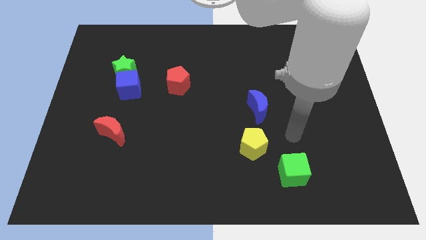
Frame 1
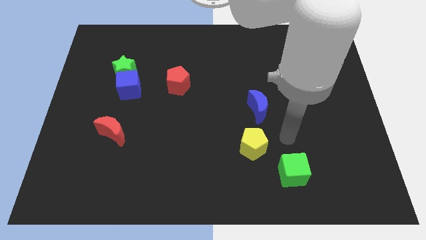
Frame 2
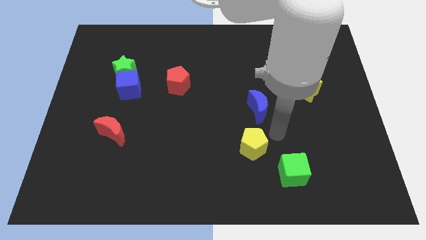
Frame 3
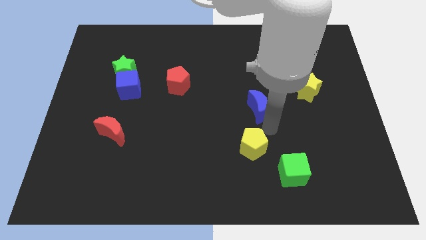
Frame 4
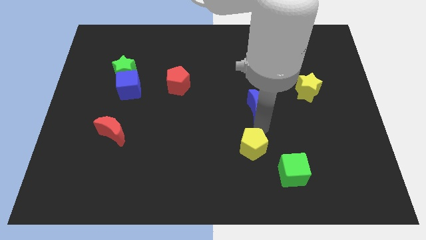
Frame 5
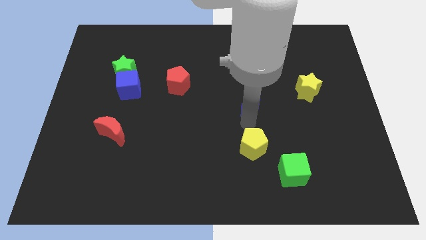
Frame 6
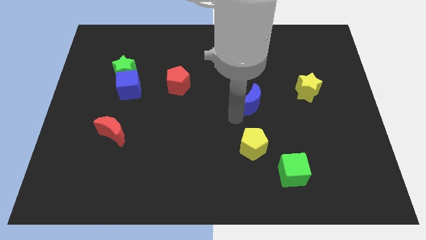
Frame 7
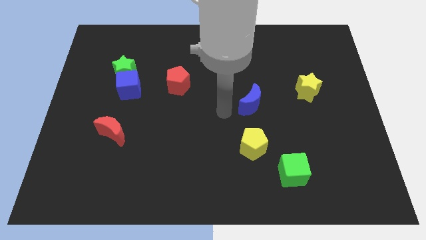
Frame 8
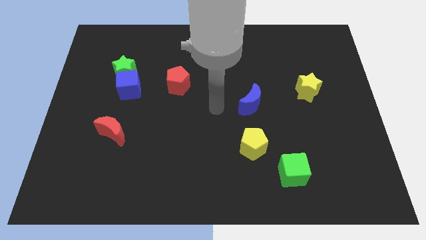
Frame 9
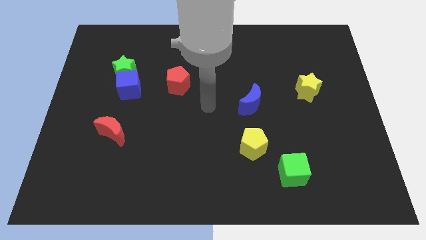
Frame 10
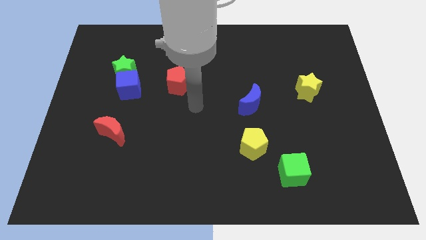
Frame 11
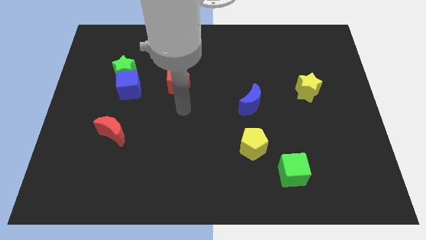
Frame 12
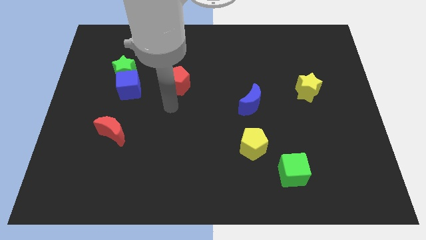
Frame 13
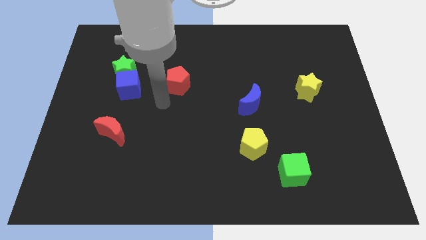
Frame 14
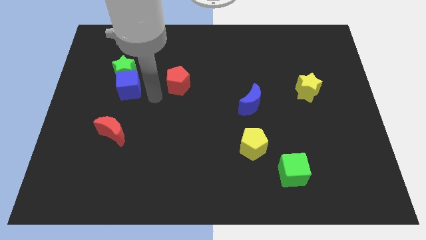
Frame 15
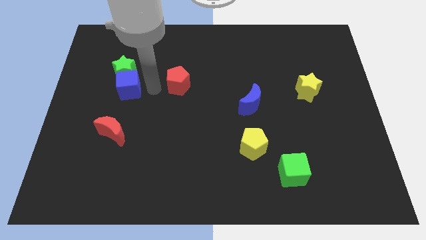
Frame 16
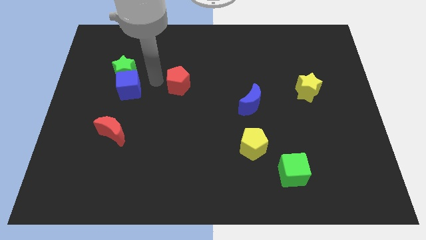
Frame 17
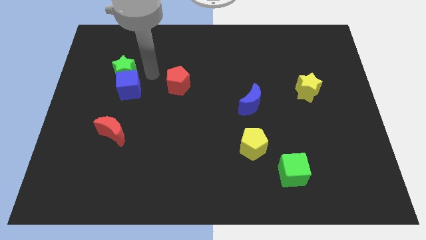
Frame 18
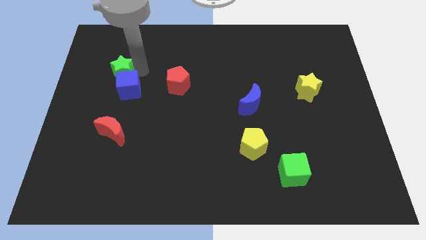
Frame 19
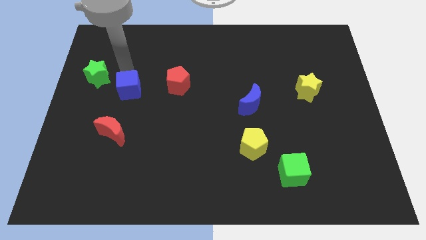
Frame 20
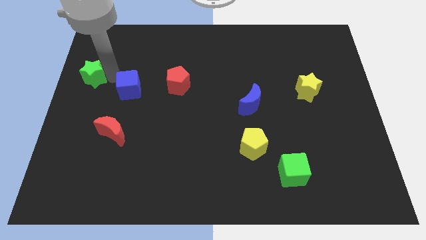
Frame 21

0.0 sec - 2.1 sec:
move the blue cube away from the green star

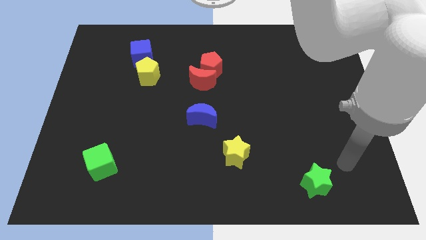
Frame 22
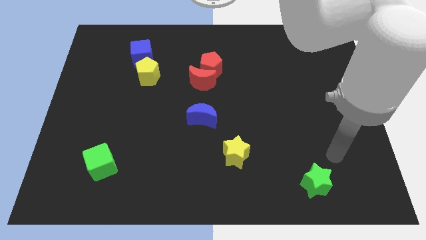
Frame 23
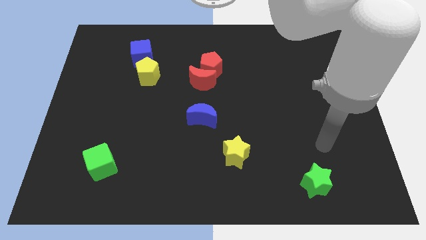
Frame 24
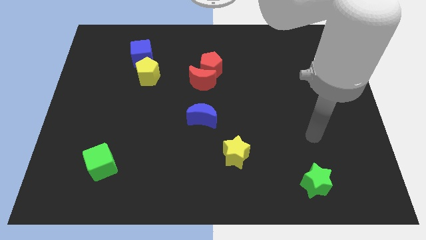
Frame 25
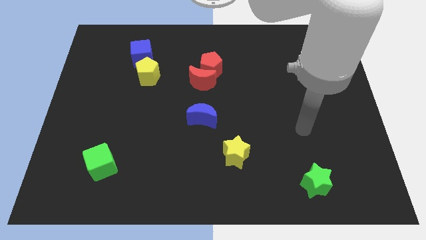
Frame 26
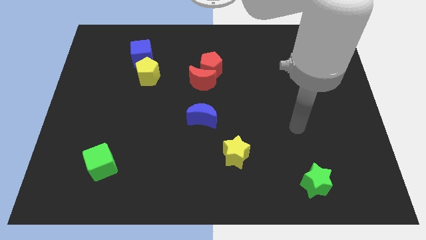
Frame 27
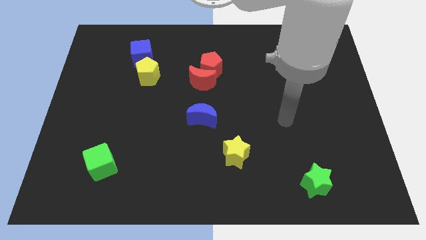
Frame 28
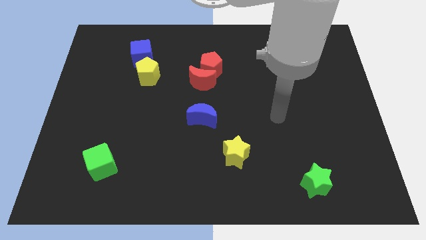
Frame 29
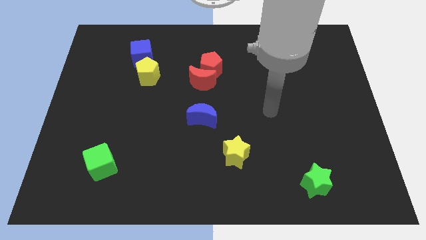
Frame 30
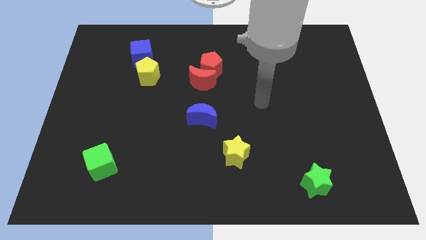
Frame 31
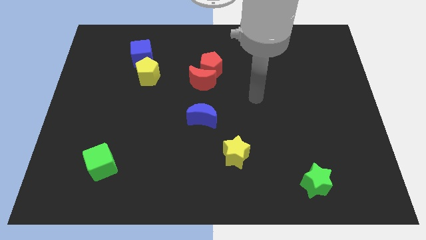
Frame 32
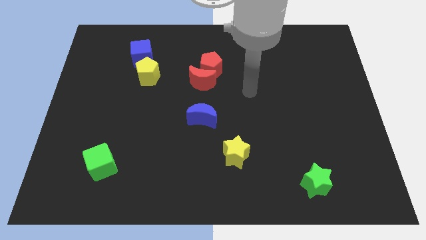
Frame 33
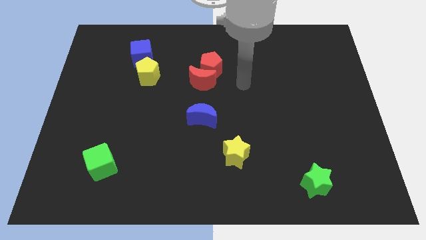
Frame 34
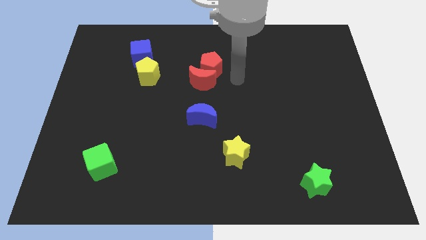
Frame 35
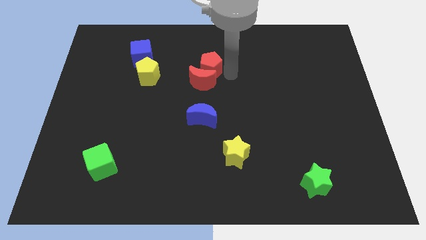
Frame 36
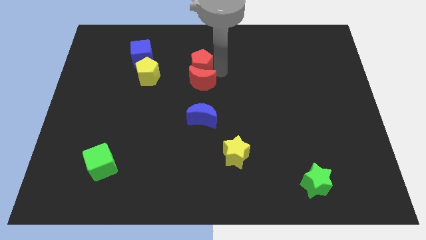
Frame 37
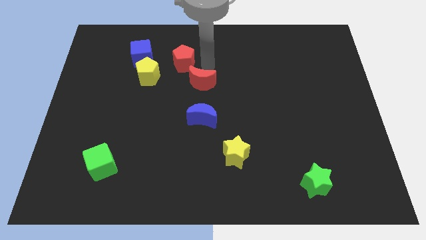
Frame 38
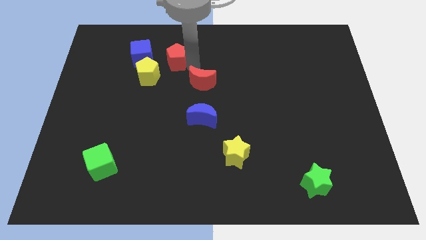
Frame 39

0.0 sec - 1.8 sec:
separate the red moon from the red pentagon

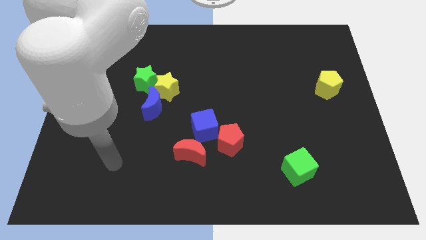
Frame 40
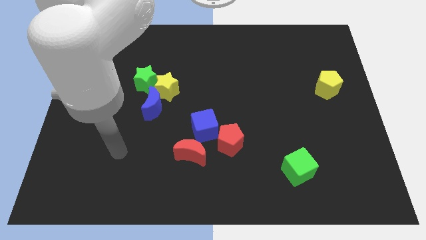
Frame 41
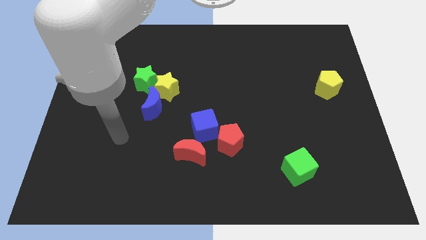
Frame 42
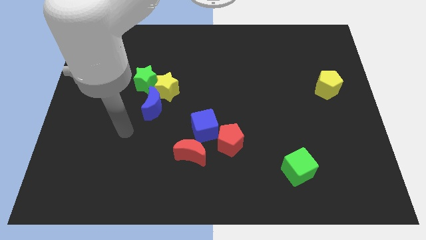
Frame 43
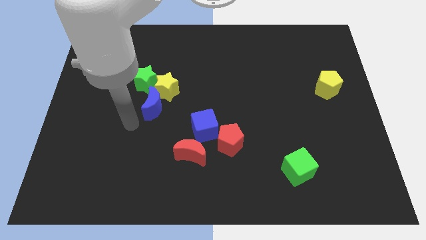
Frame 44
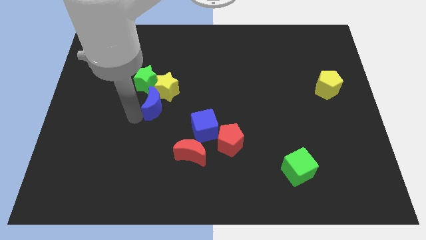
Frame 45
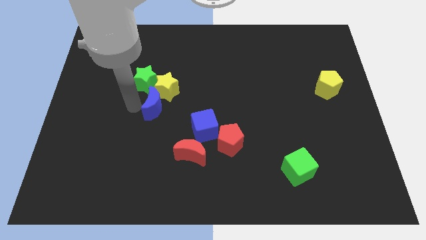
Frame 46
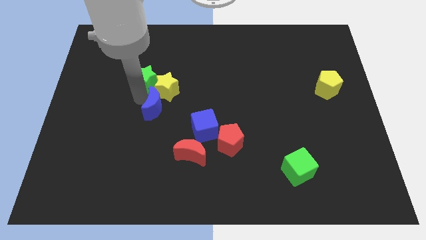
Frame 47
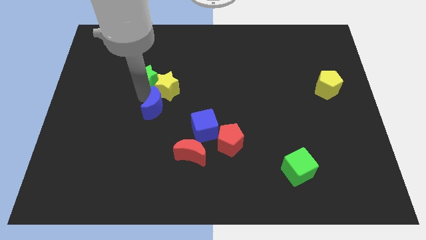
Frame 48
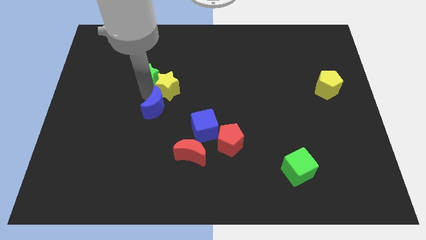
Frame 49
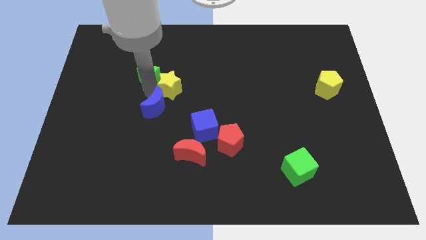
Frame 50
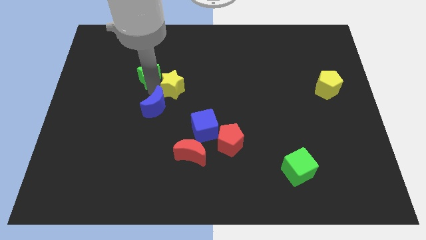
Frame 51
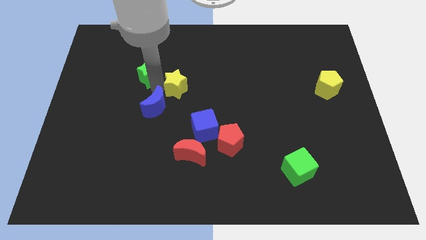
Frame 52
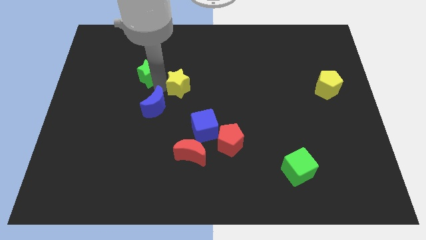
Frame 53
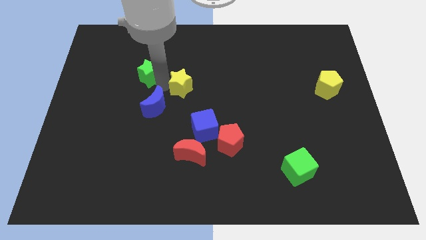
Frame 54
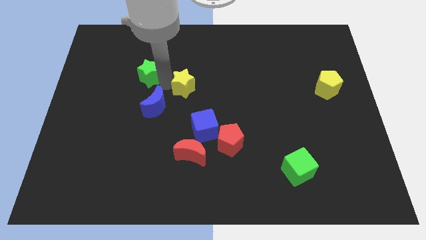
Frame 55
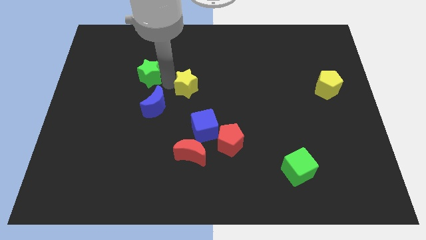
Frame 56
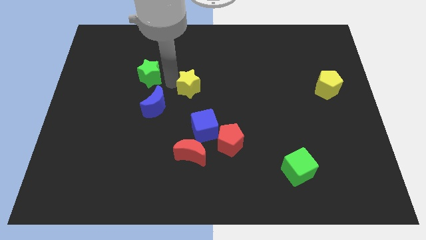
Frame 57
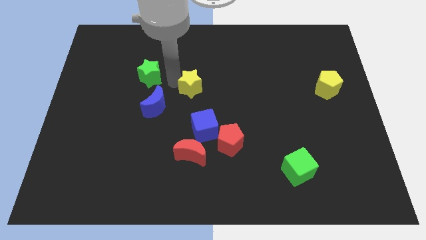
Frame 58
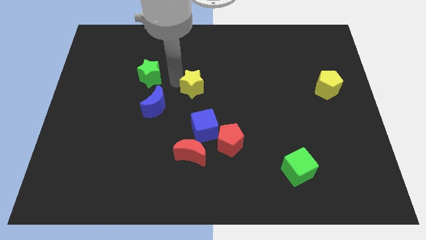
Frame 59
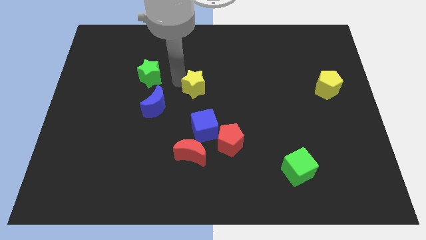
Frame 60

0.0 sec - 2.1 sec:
move the yellow star away from the green star and blue moon

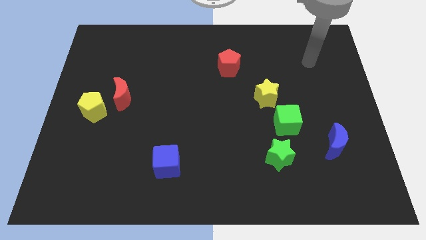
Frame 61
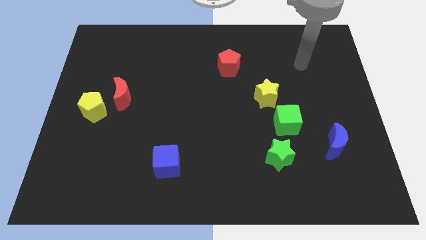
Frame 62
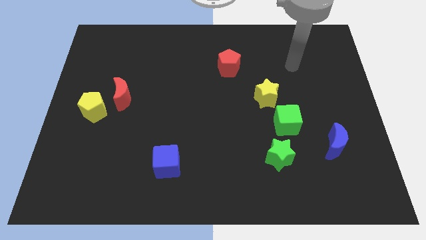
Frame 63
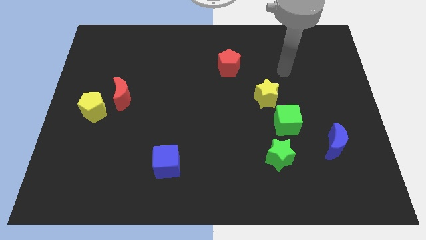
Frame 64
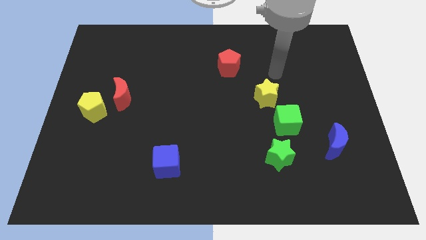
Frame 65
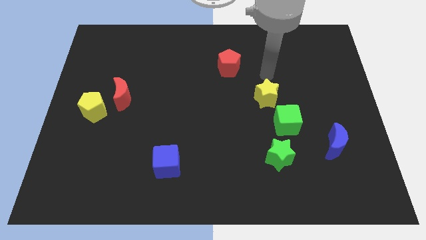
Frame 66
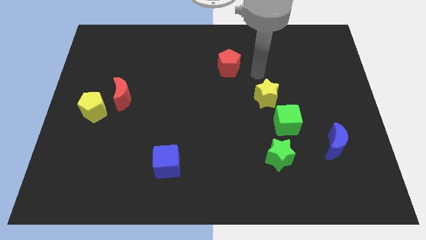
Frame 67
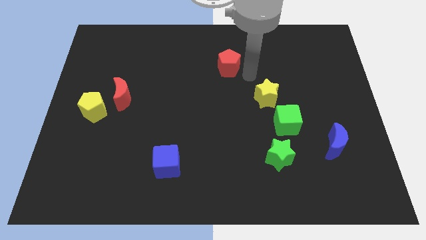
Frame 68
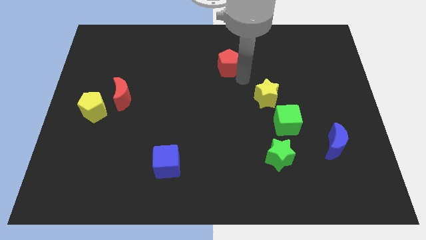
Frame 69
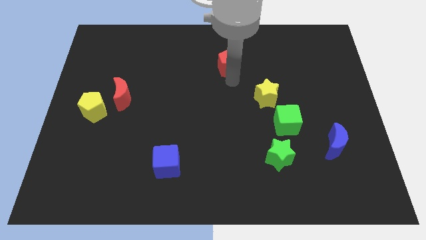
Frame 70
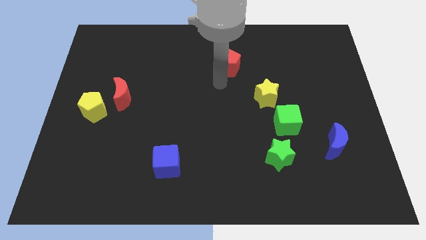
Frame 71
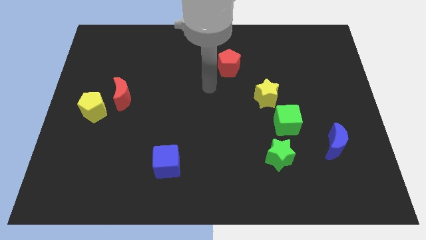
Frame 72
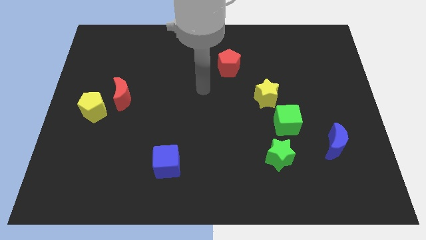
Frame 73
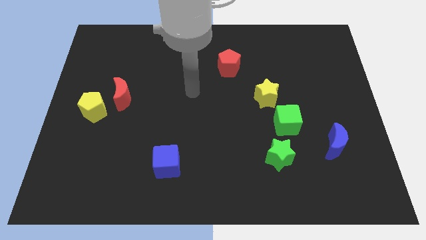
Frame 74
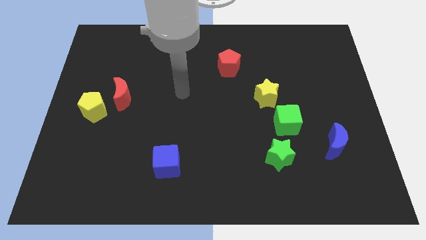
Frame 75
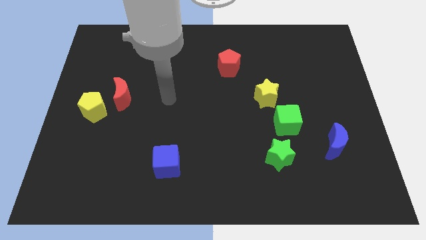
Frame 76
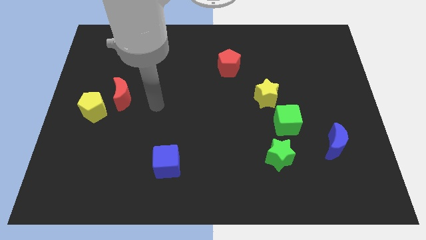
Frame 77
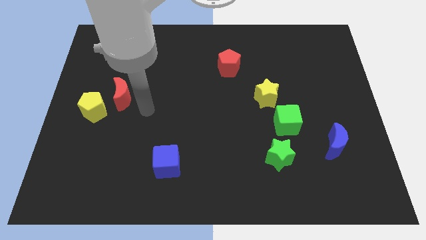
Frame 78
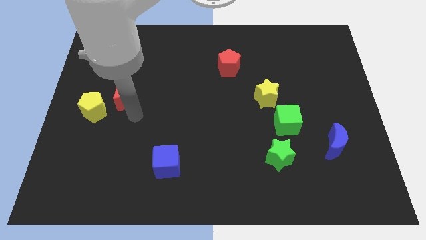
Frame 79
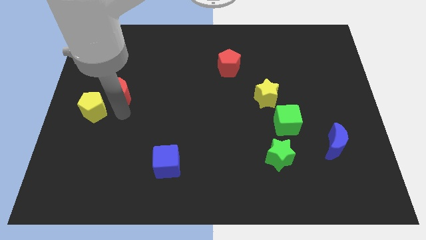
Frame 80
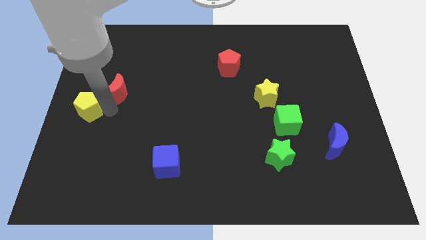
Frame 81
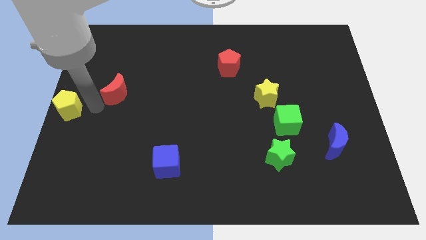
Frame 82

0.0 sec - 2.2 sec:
pull the red moon apart from the yellow pentagon

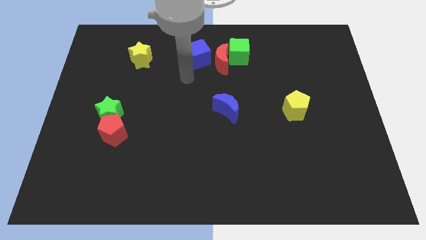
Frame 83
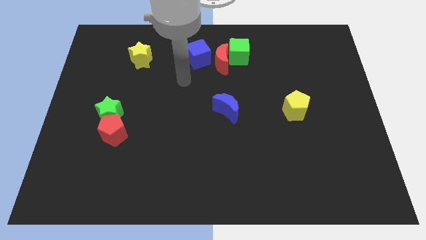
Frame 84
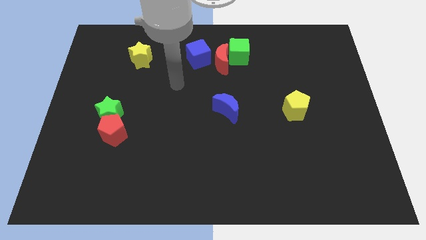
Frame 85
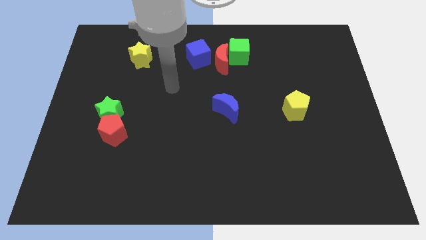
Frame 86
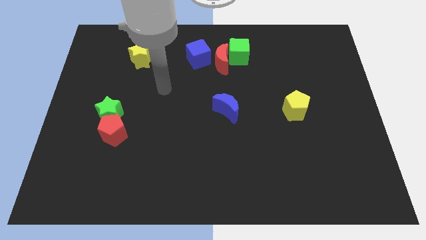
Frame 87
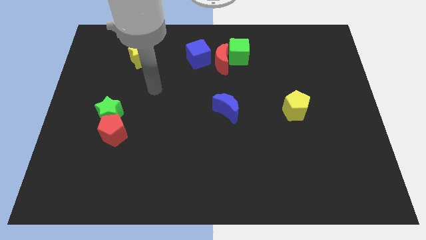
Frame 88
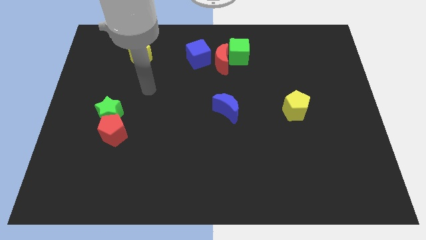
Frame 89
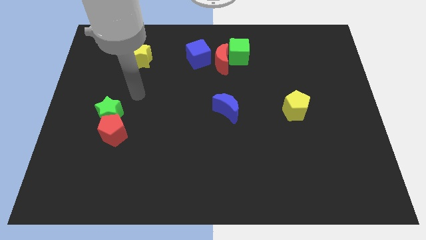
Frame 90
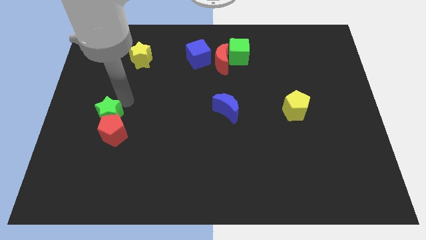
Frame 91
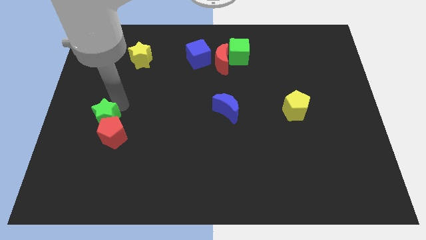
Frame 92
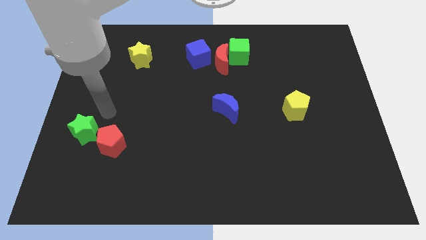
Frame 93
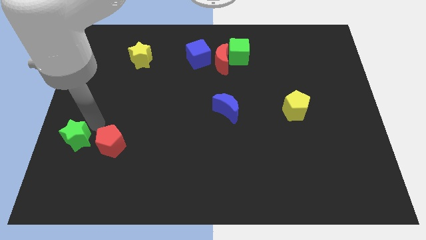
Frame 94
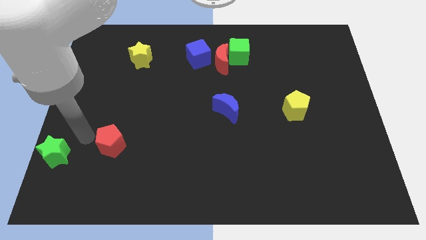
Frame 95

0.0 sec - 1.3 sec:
pull the red pentagon apart from the green star
